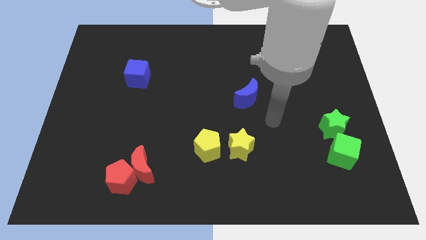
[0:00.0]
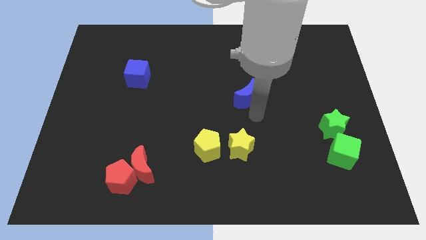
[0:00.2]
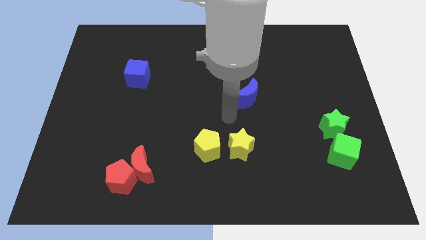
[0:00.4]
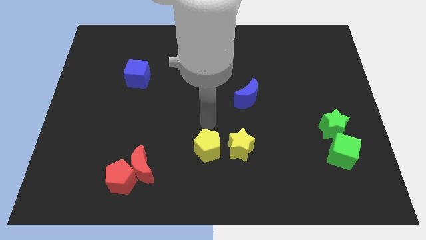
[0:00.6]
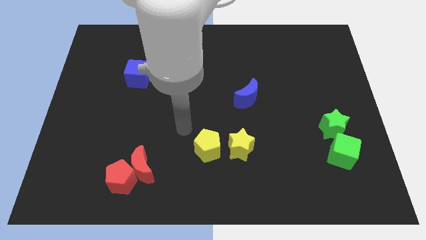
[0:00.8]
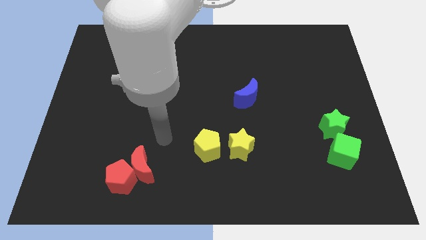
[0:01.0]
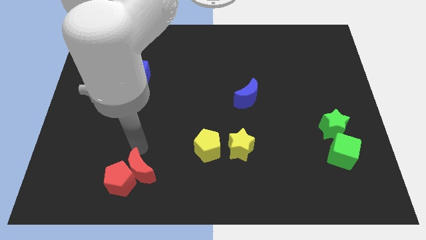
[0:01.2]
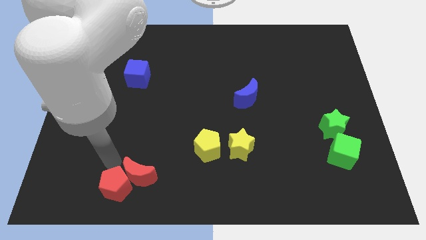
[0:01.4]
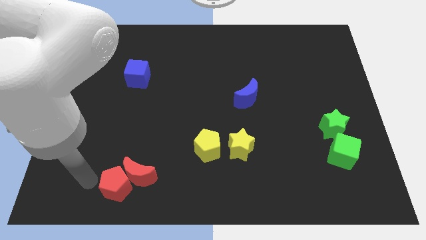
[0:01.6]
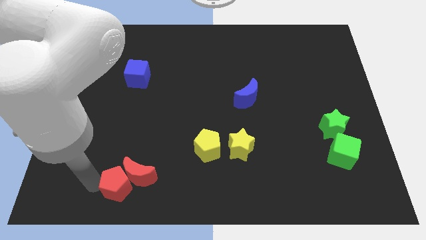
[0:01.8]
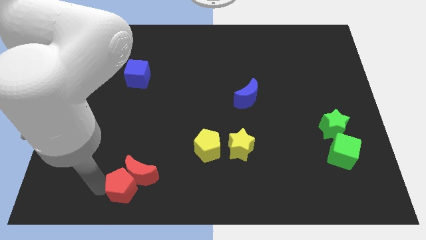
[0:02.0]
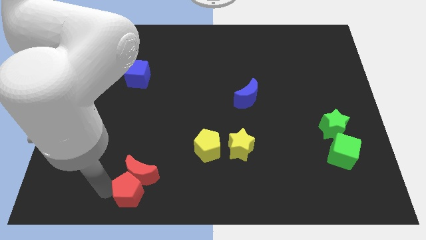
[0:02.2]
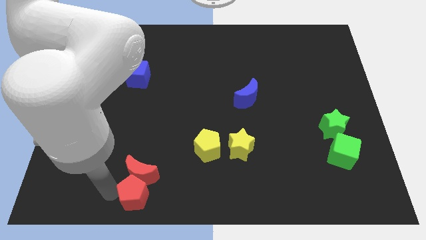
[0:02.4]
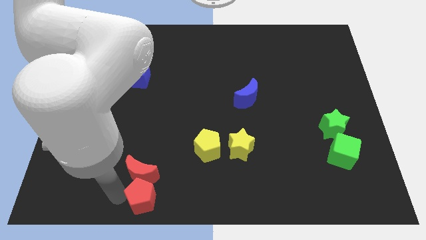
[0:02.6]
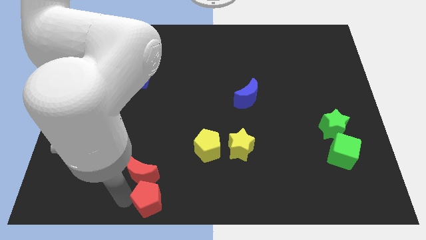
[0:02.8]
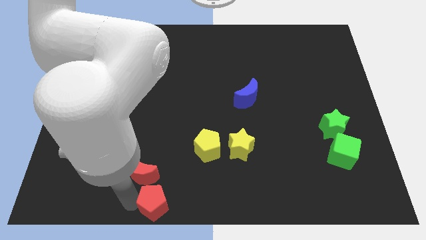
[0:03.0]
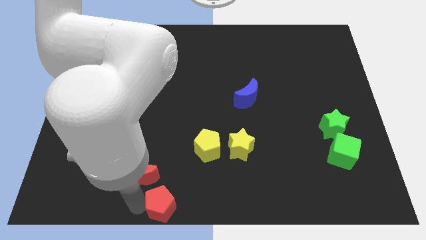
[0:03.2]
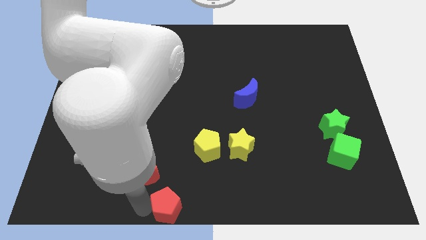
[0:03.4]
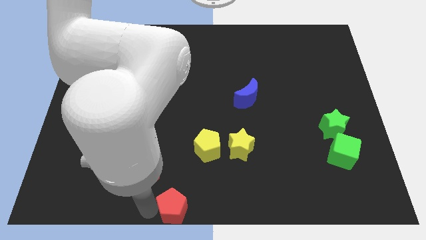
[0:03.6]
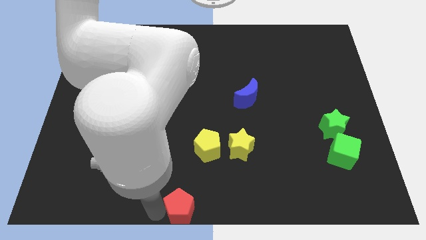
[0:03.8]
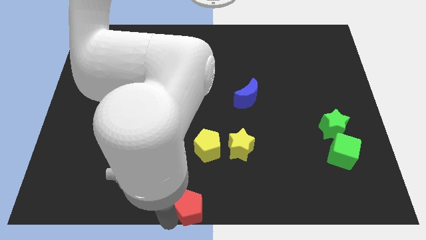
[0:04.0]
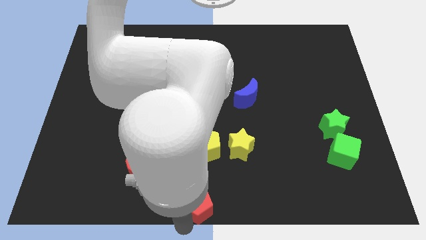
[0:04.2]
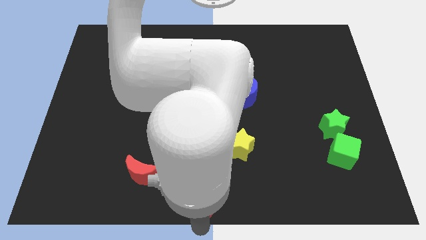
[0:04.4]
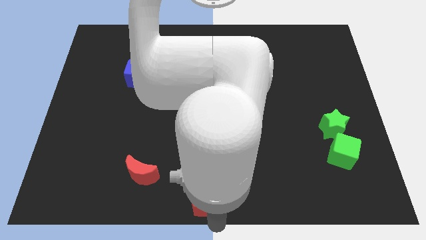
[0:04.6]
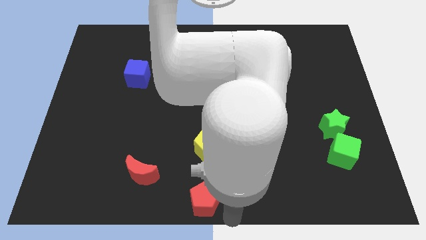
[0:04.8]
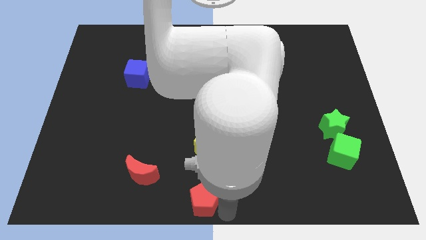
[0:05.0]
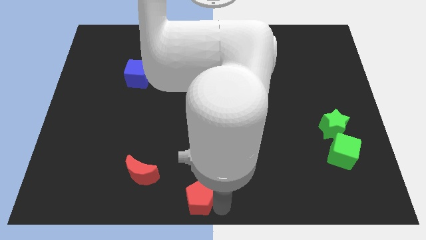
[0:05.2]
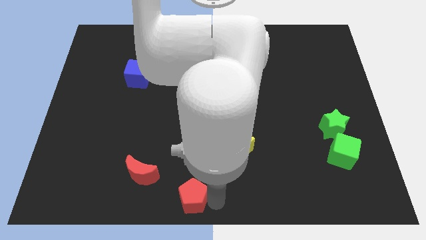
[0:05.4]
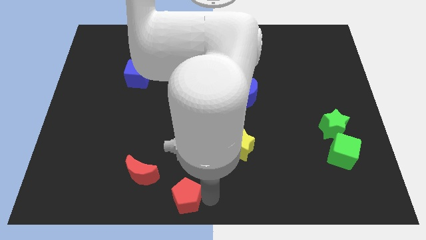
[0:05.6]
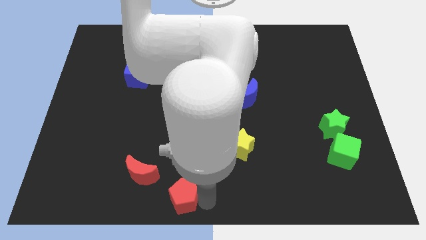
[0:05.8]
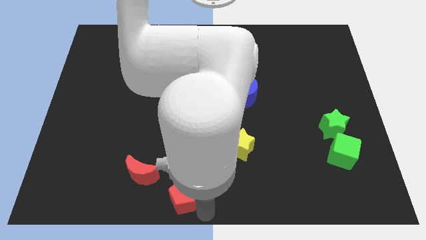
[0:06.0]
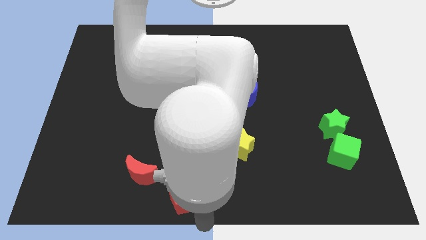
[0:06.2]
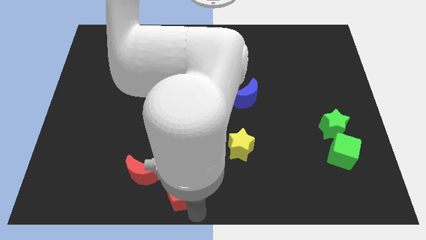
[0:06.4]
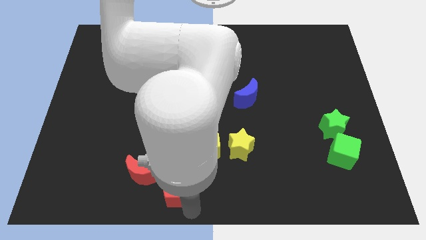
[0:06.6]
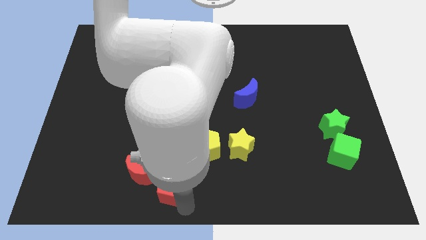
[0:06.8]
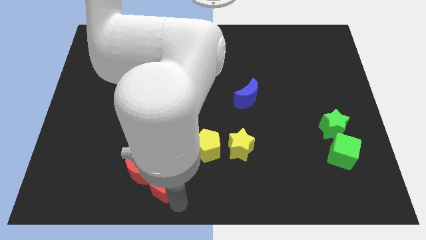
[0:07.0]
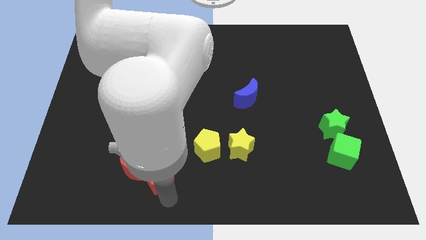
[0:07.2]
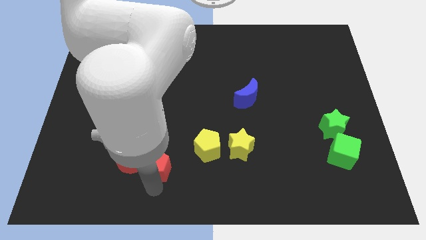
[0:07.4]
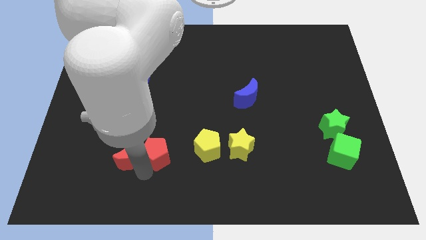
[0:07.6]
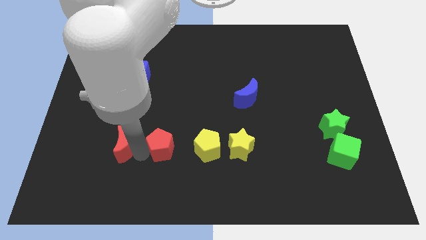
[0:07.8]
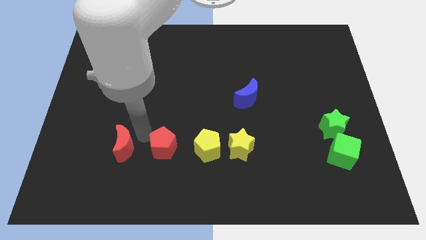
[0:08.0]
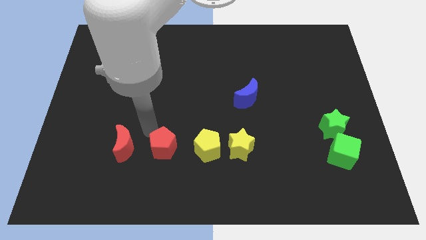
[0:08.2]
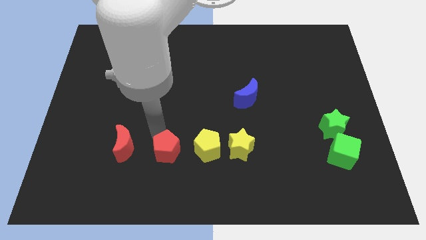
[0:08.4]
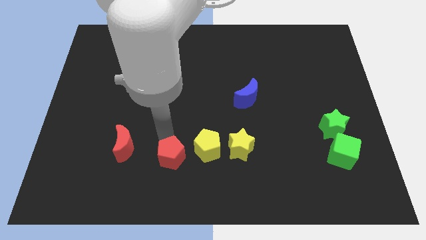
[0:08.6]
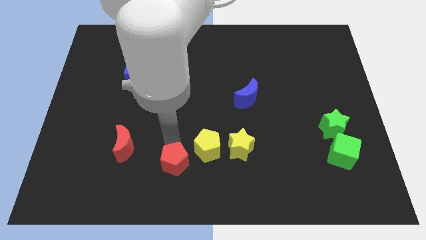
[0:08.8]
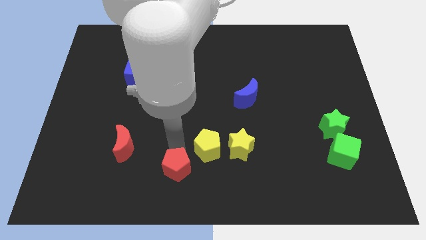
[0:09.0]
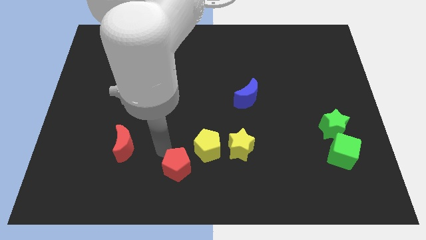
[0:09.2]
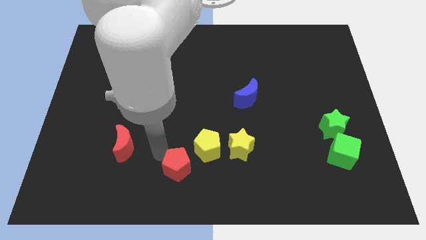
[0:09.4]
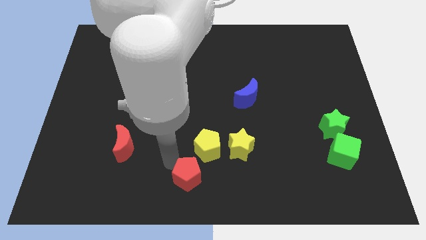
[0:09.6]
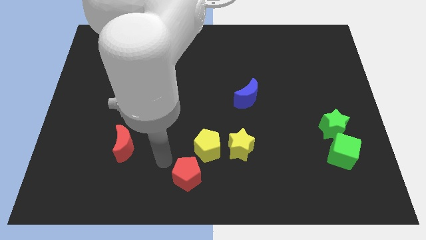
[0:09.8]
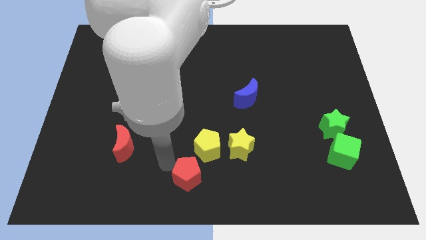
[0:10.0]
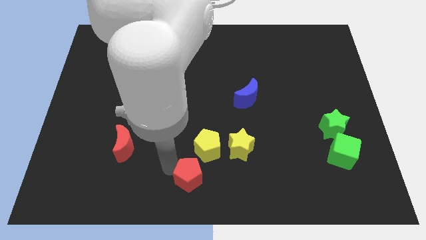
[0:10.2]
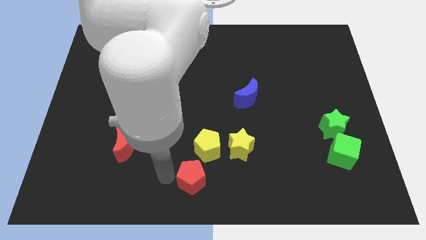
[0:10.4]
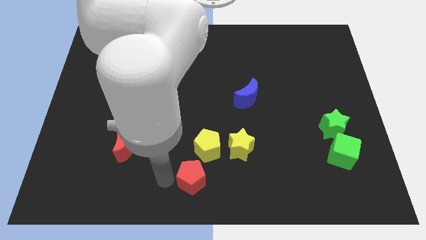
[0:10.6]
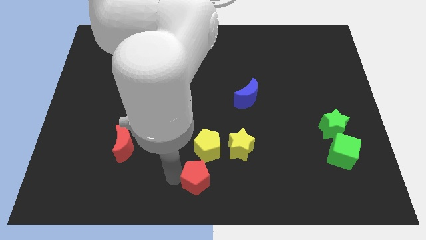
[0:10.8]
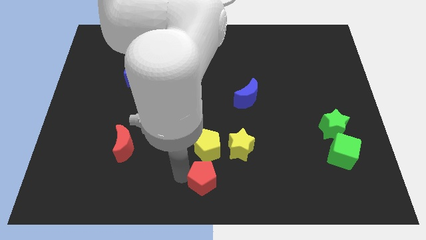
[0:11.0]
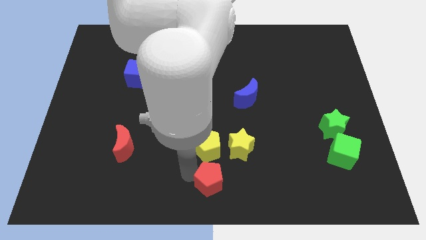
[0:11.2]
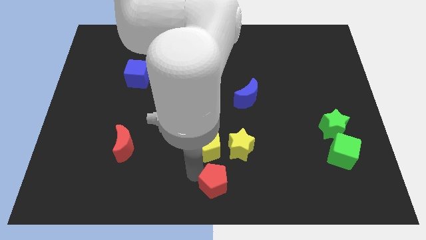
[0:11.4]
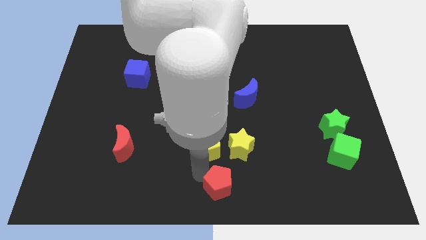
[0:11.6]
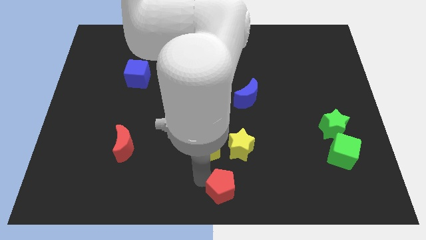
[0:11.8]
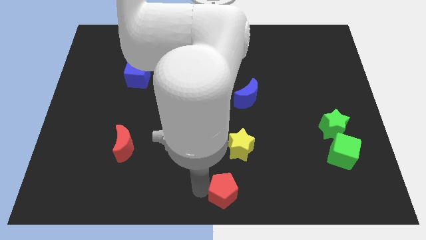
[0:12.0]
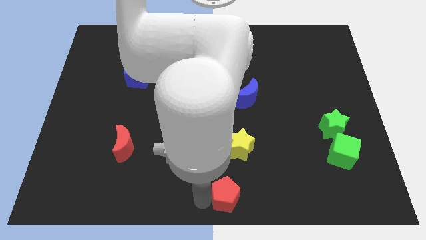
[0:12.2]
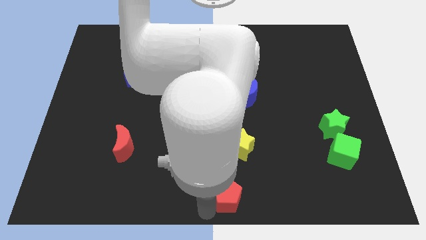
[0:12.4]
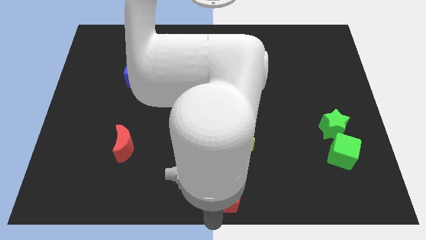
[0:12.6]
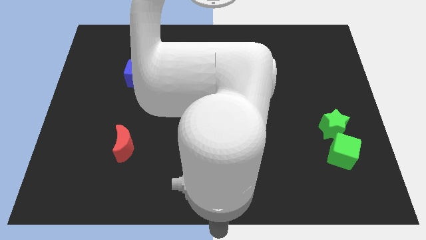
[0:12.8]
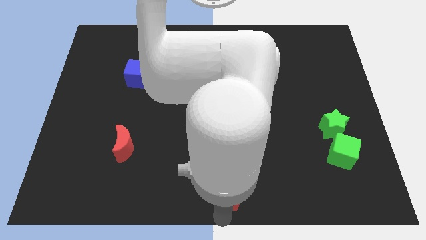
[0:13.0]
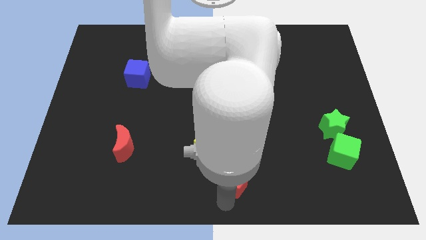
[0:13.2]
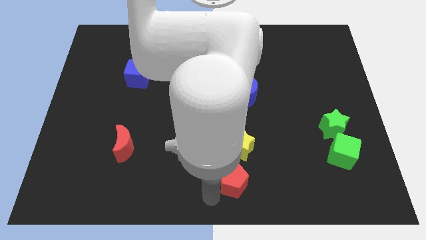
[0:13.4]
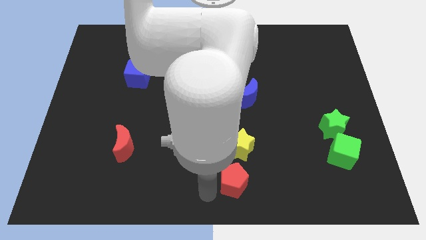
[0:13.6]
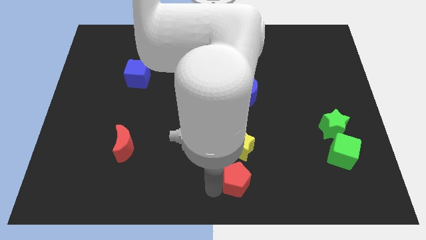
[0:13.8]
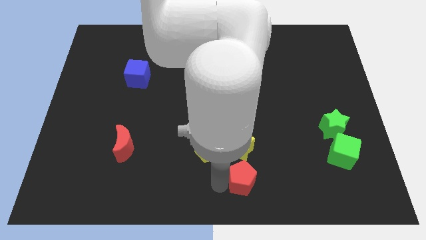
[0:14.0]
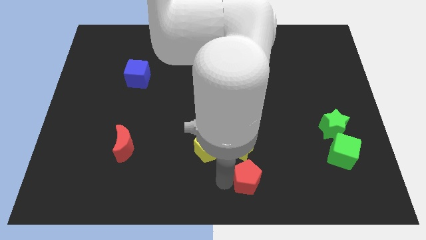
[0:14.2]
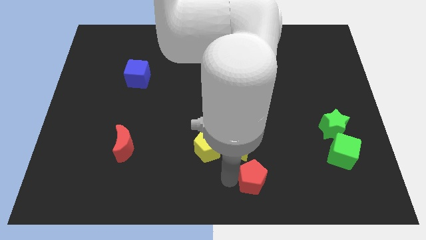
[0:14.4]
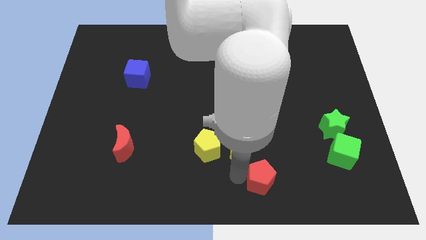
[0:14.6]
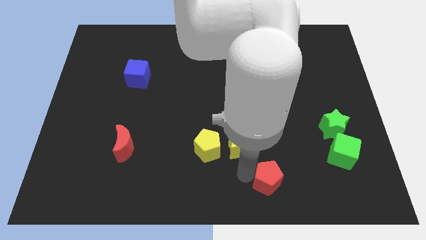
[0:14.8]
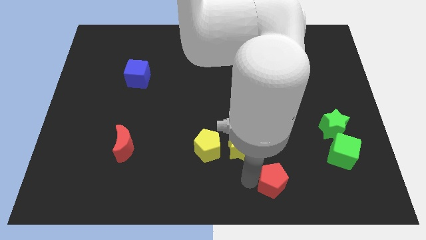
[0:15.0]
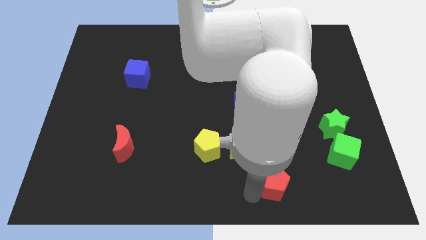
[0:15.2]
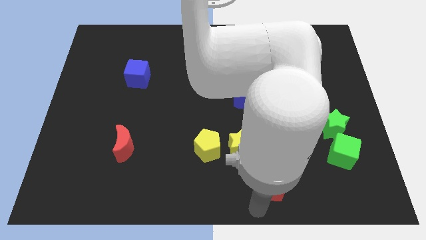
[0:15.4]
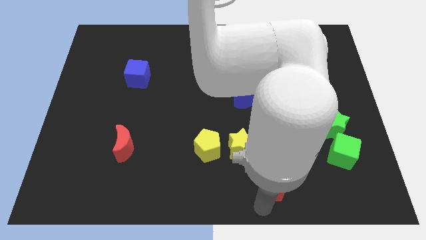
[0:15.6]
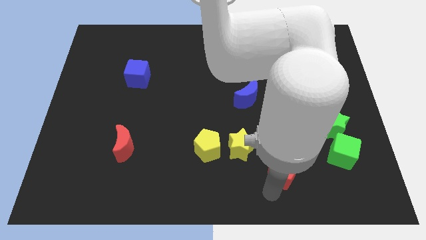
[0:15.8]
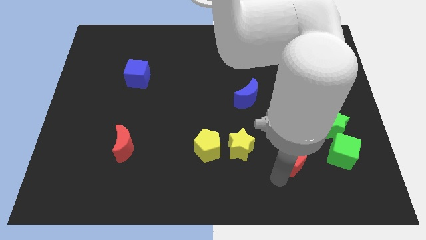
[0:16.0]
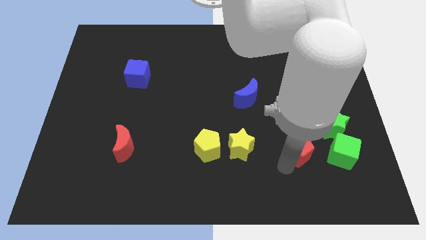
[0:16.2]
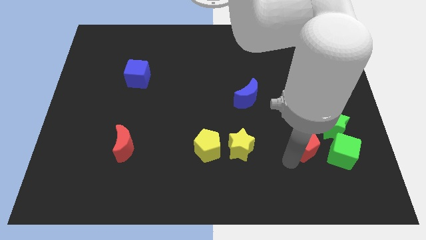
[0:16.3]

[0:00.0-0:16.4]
move the red pentagon diagonally up and to the left of the green cube
